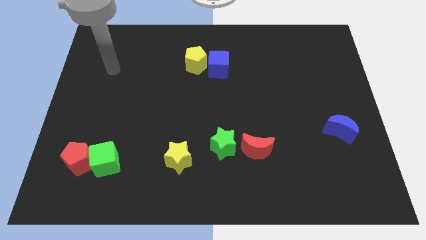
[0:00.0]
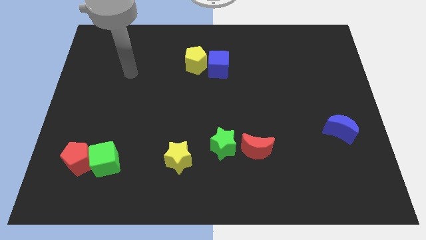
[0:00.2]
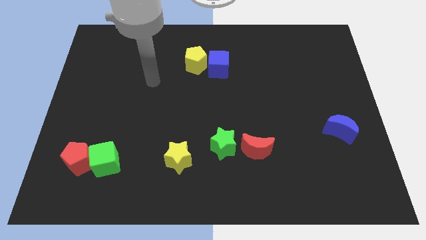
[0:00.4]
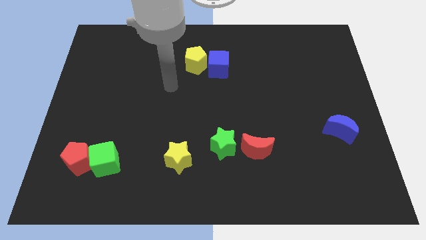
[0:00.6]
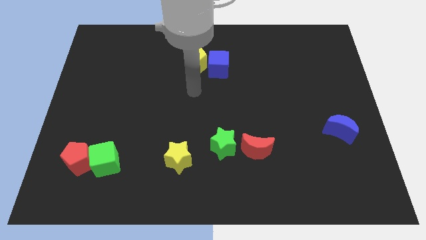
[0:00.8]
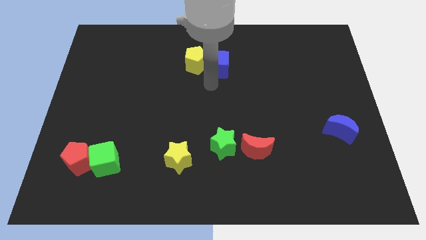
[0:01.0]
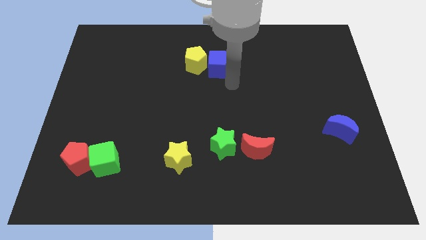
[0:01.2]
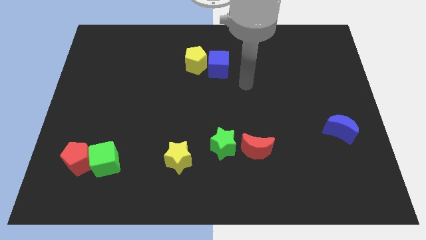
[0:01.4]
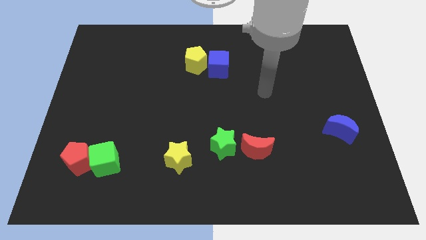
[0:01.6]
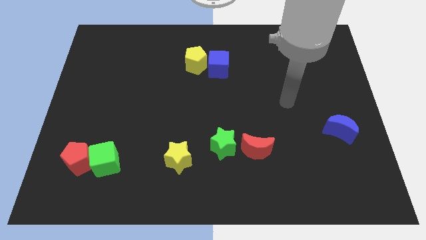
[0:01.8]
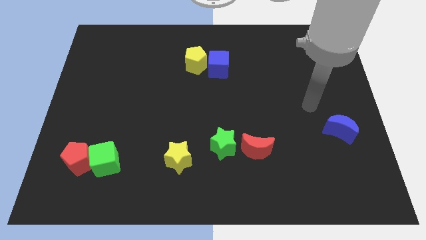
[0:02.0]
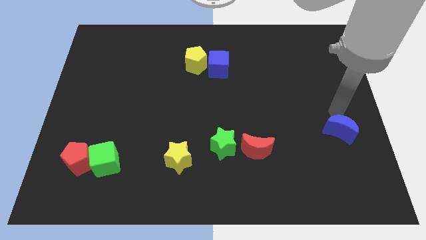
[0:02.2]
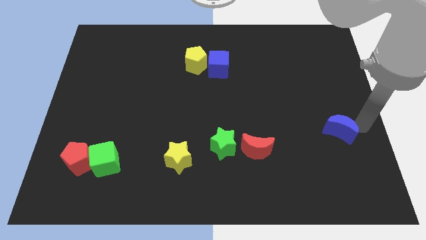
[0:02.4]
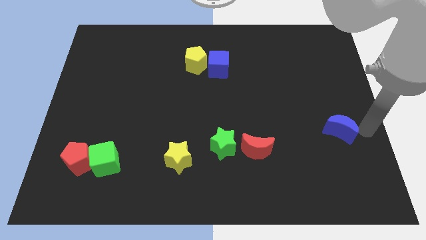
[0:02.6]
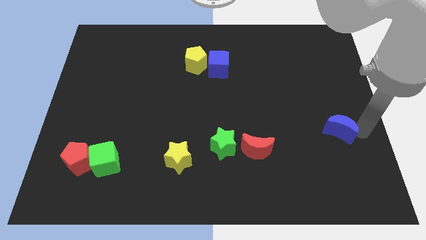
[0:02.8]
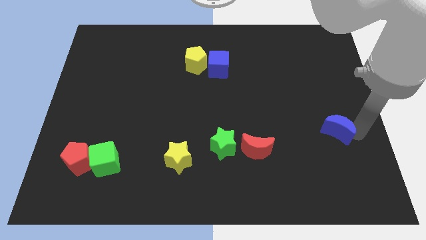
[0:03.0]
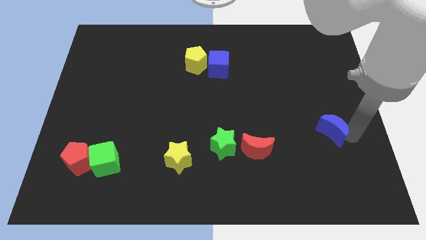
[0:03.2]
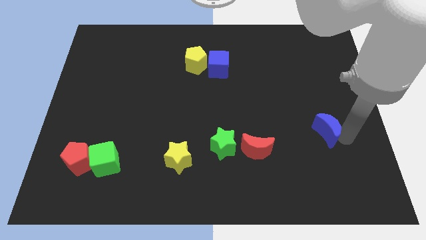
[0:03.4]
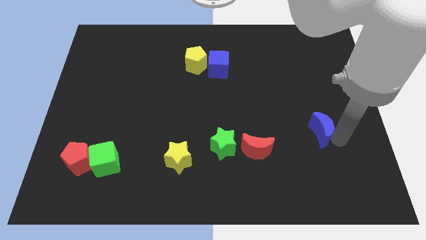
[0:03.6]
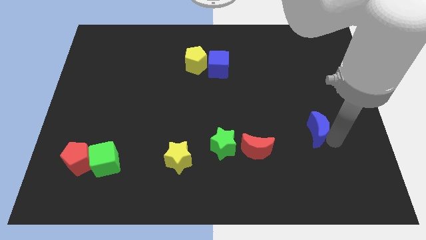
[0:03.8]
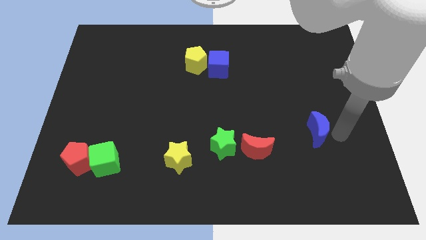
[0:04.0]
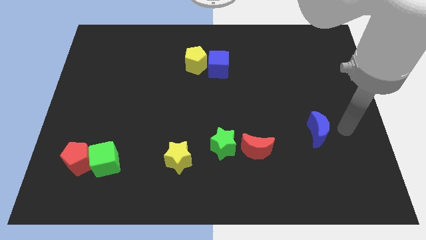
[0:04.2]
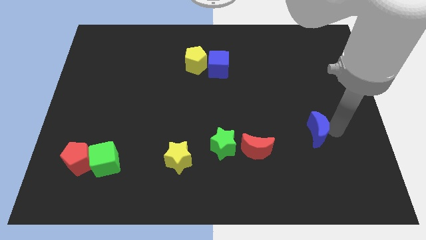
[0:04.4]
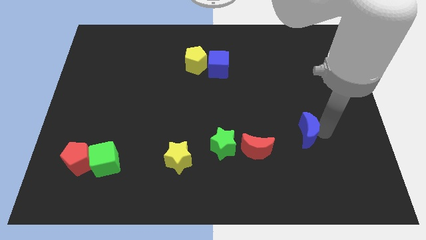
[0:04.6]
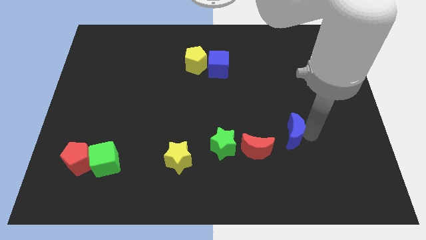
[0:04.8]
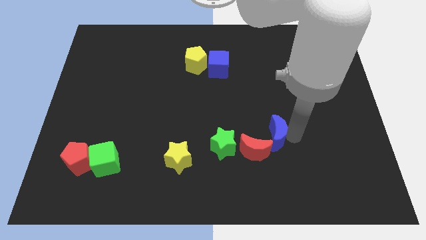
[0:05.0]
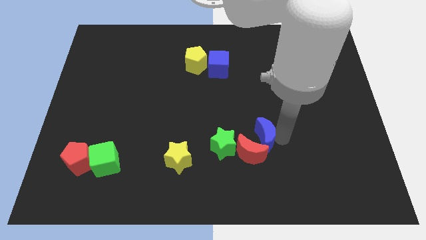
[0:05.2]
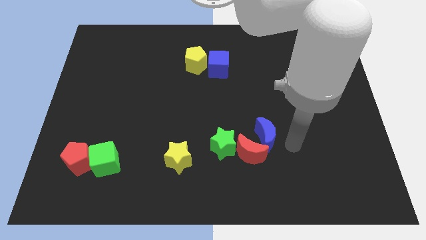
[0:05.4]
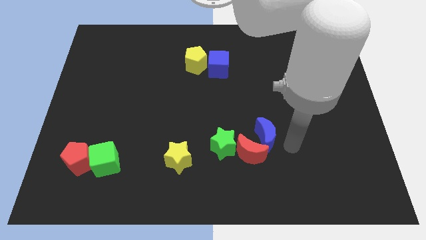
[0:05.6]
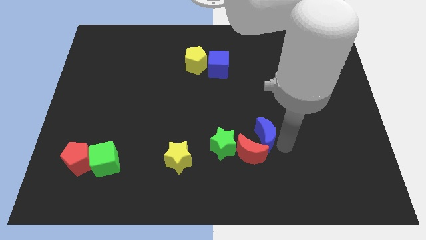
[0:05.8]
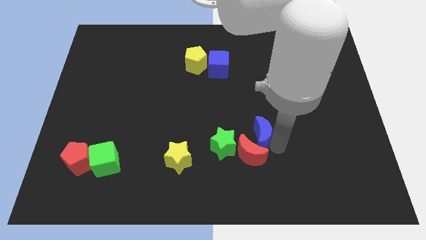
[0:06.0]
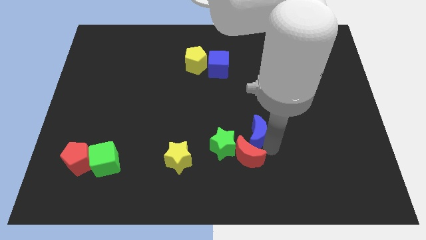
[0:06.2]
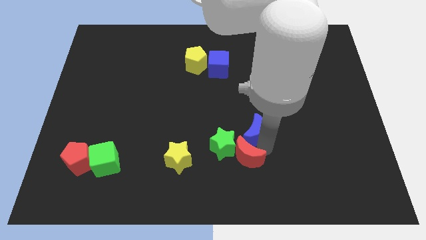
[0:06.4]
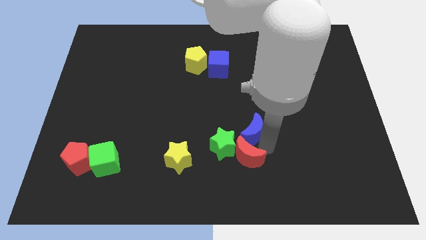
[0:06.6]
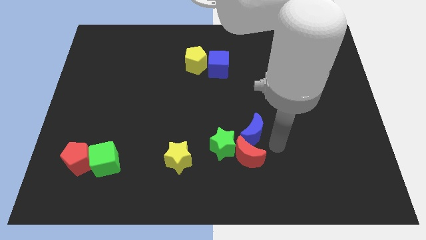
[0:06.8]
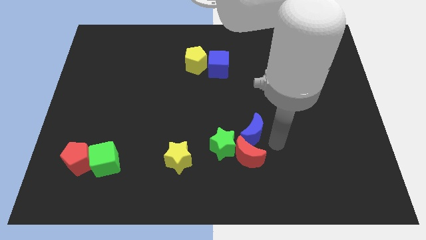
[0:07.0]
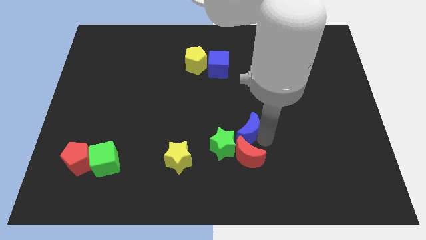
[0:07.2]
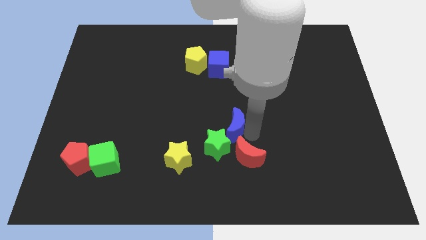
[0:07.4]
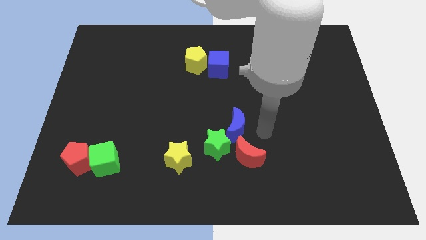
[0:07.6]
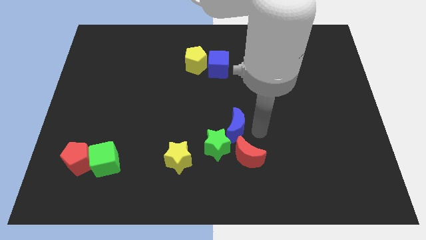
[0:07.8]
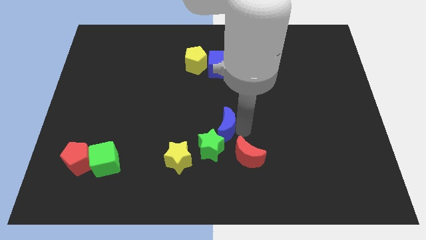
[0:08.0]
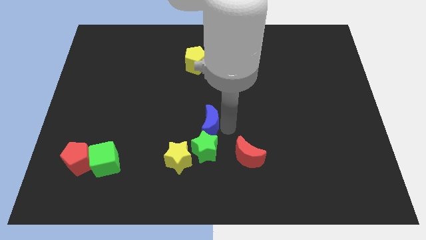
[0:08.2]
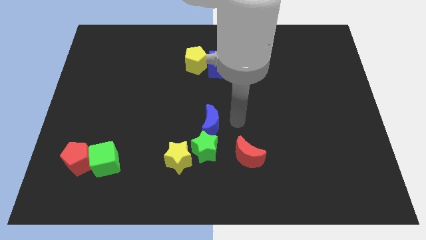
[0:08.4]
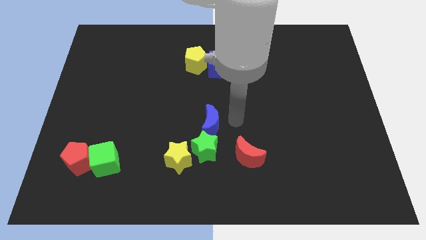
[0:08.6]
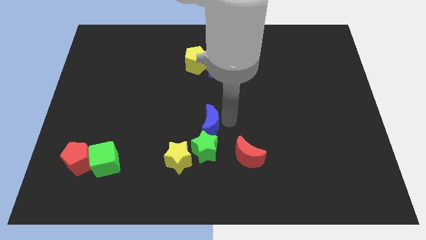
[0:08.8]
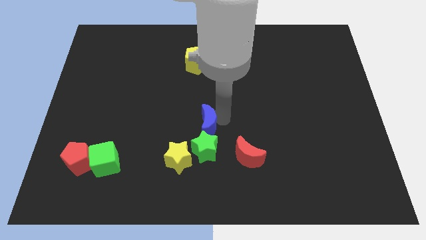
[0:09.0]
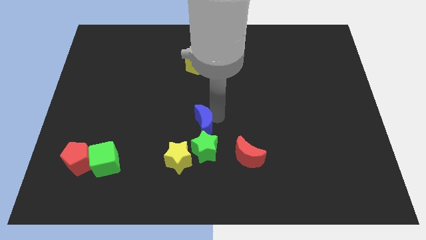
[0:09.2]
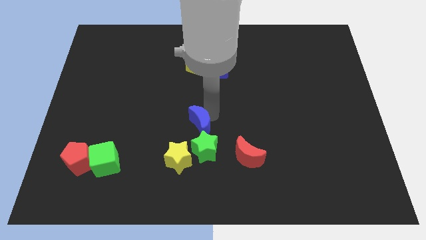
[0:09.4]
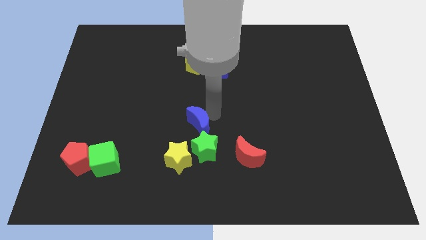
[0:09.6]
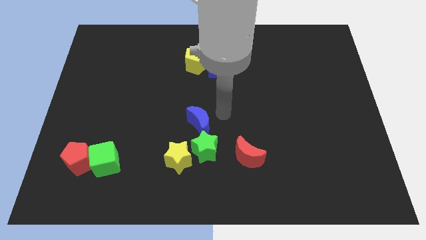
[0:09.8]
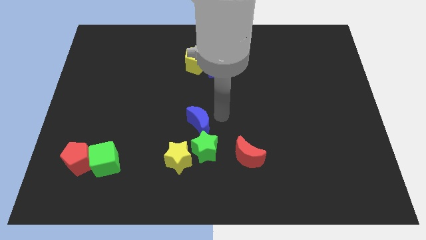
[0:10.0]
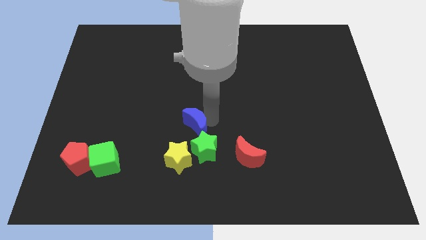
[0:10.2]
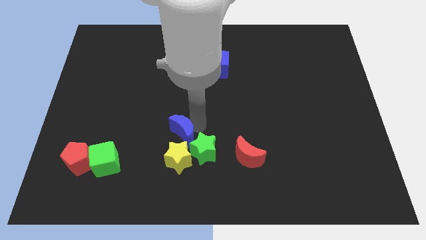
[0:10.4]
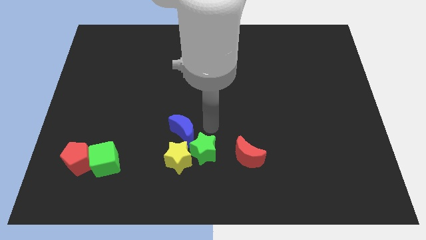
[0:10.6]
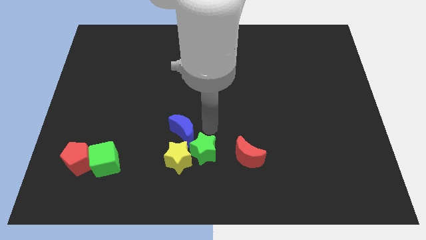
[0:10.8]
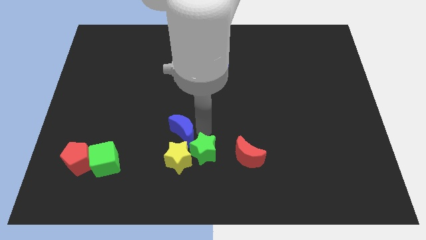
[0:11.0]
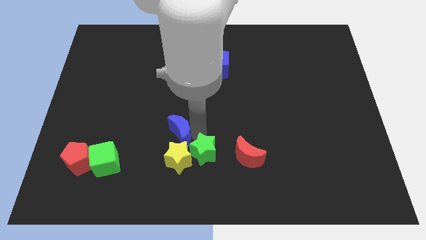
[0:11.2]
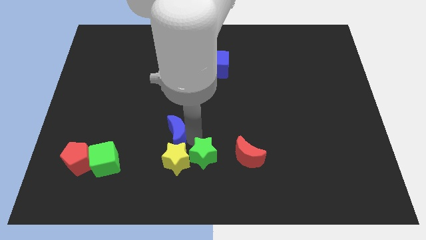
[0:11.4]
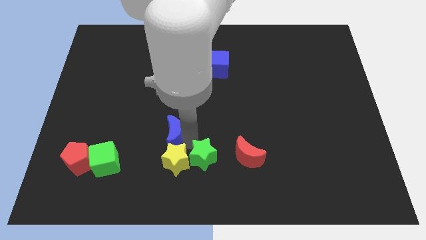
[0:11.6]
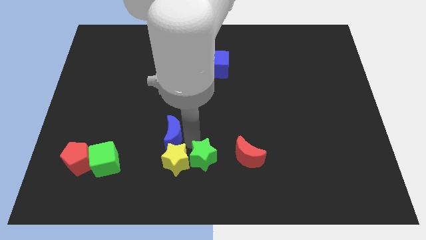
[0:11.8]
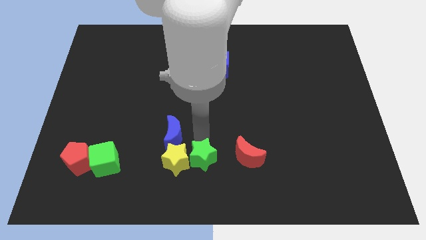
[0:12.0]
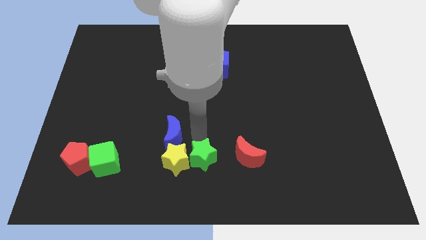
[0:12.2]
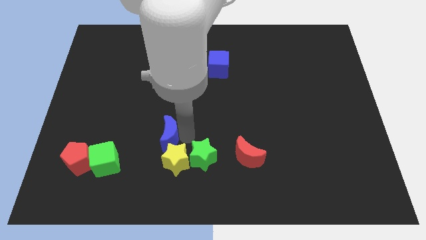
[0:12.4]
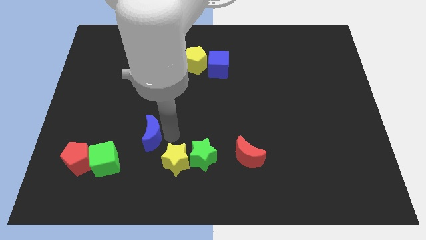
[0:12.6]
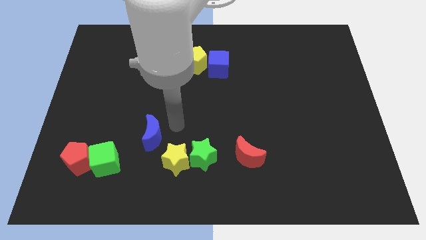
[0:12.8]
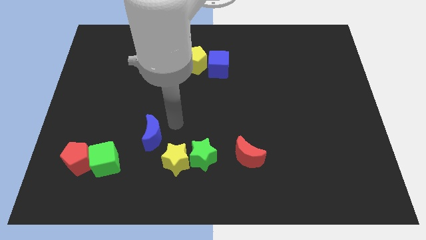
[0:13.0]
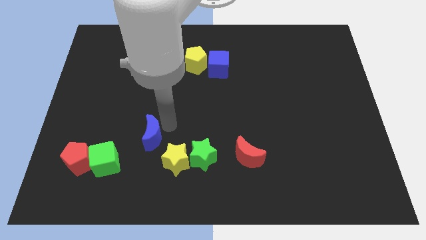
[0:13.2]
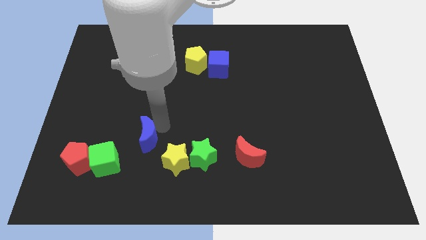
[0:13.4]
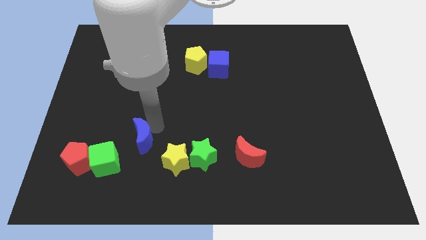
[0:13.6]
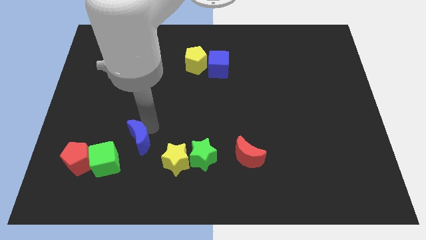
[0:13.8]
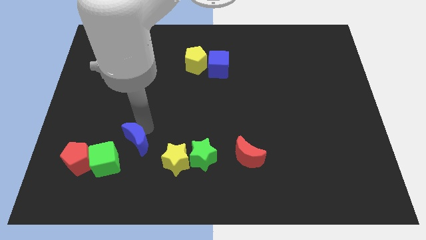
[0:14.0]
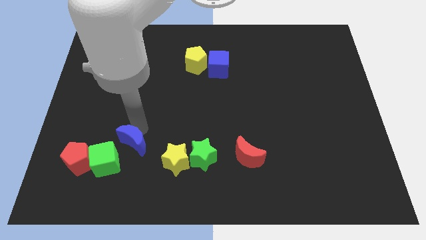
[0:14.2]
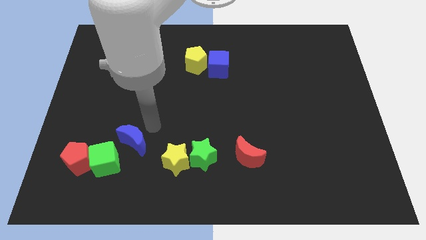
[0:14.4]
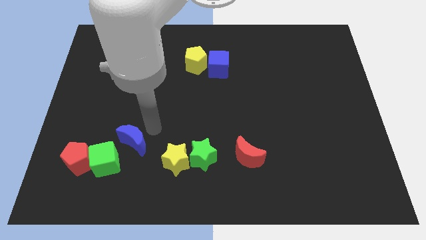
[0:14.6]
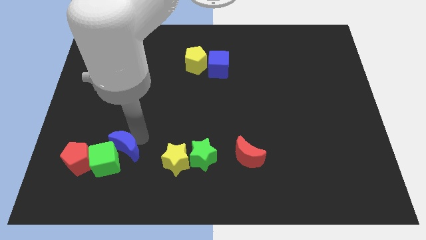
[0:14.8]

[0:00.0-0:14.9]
put the blue moon towards the green cube
